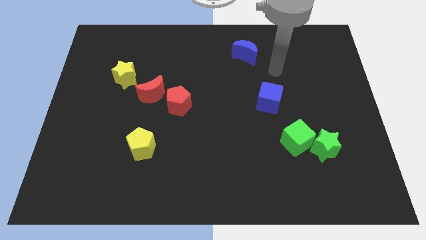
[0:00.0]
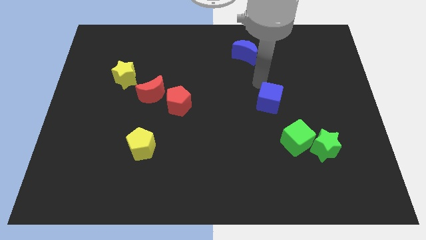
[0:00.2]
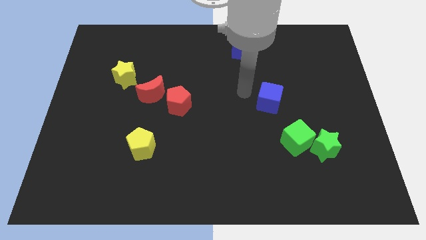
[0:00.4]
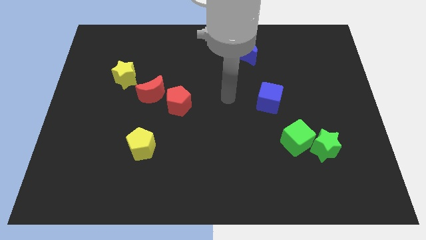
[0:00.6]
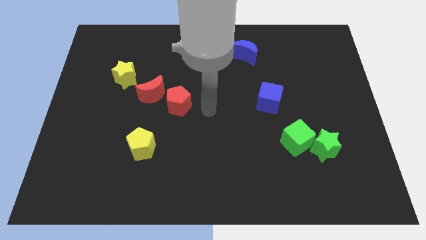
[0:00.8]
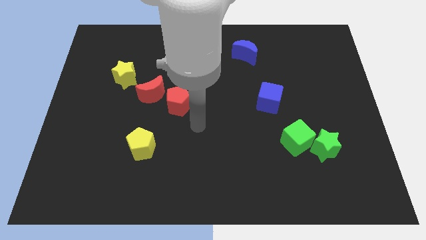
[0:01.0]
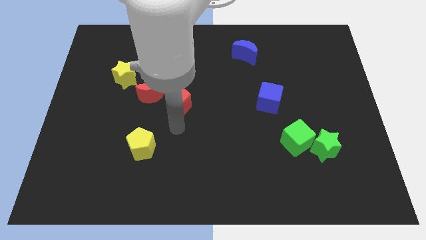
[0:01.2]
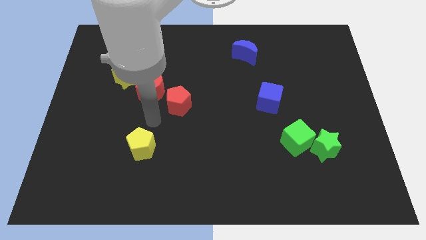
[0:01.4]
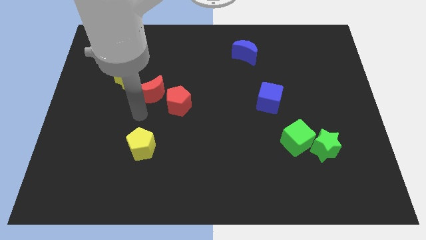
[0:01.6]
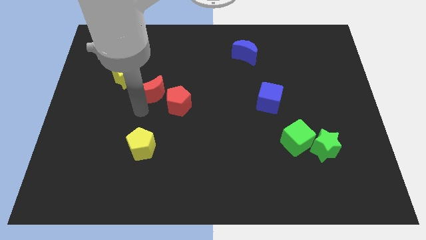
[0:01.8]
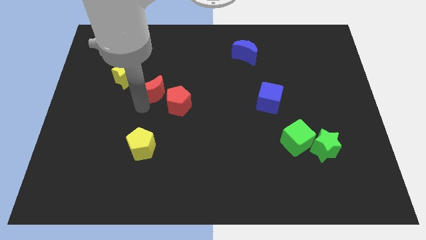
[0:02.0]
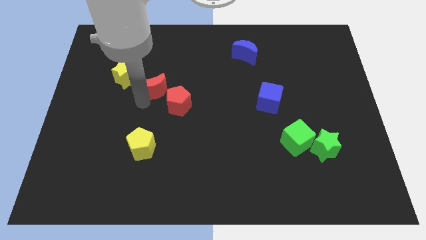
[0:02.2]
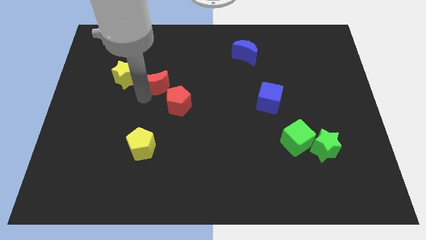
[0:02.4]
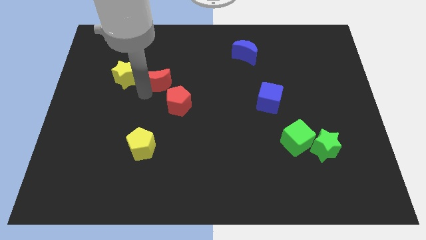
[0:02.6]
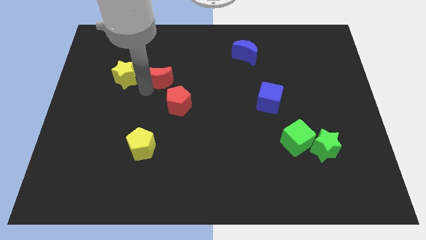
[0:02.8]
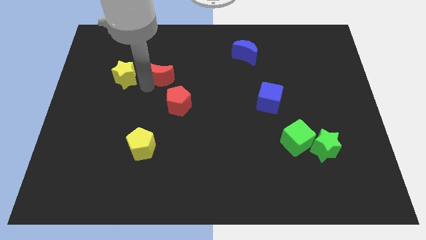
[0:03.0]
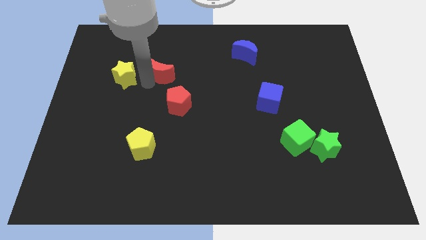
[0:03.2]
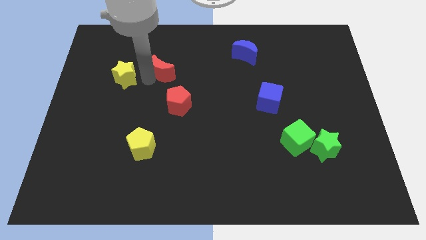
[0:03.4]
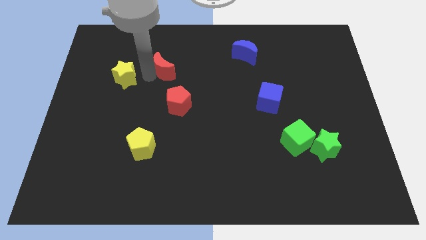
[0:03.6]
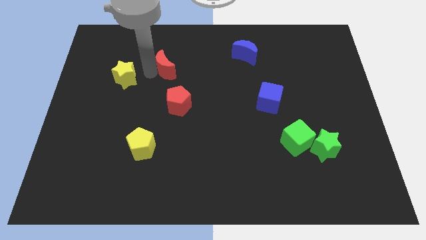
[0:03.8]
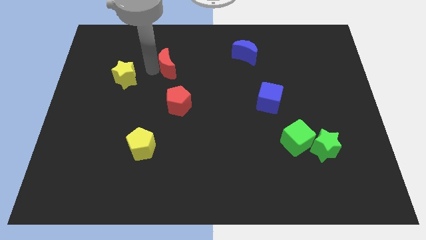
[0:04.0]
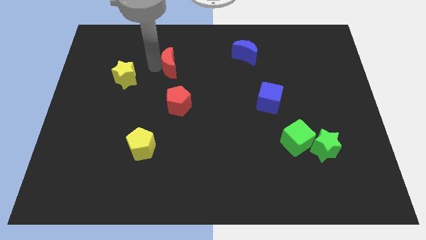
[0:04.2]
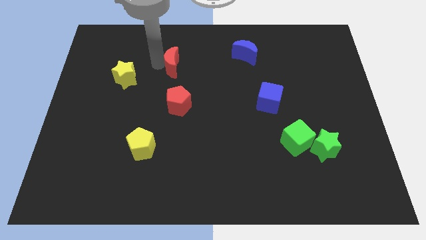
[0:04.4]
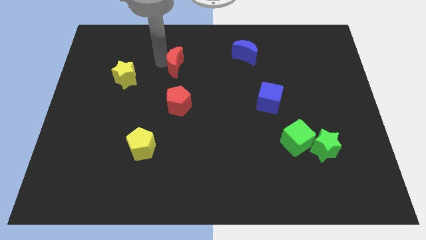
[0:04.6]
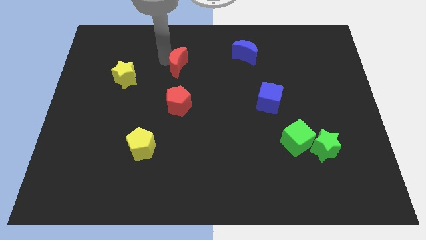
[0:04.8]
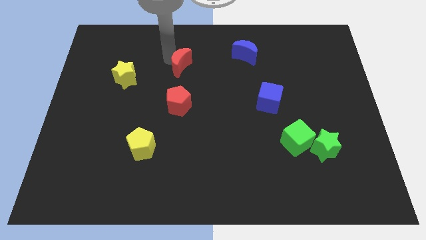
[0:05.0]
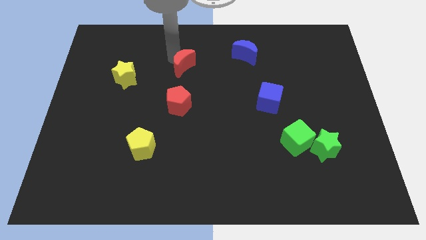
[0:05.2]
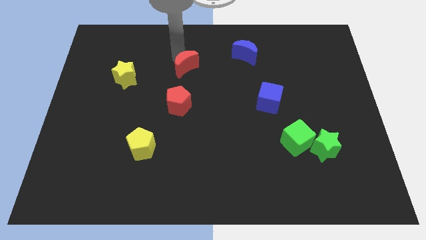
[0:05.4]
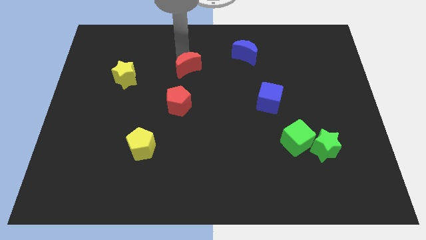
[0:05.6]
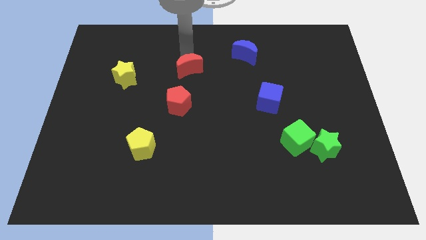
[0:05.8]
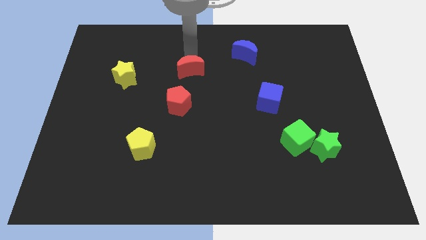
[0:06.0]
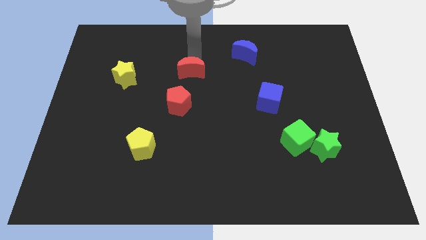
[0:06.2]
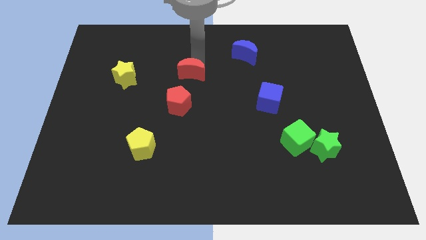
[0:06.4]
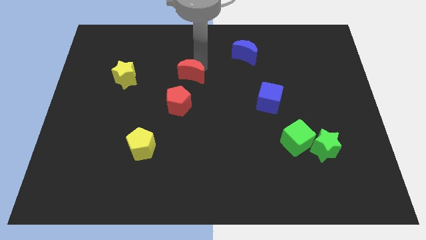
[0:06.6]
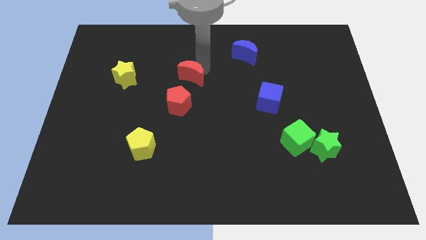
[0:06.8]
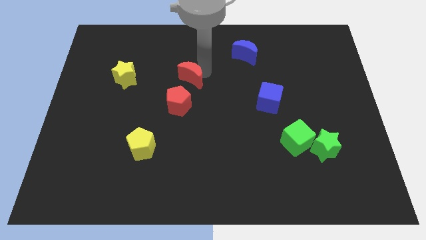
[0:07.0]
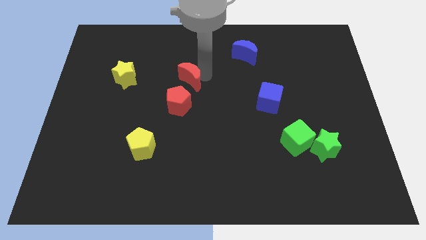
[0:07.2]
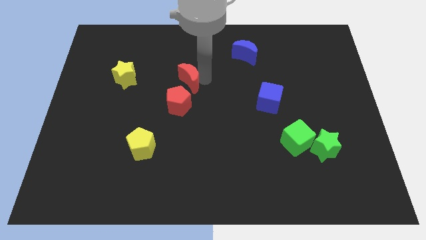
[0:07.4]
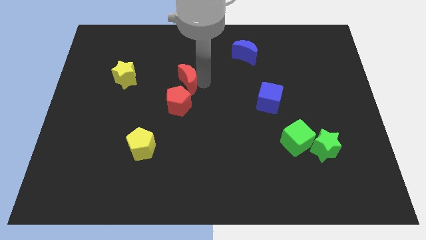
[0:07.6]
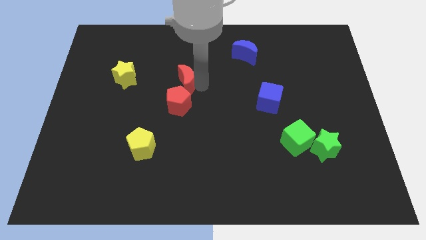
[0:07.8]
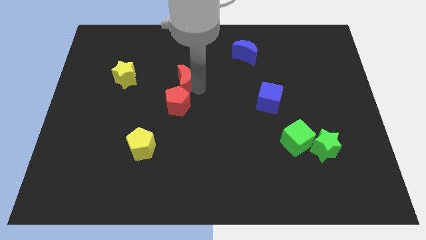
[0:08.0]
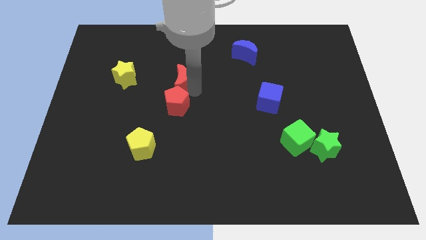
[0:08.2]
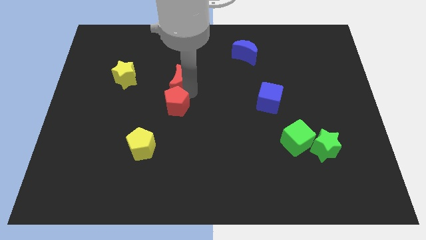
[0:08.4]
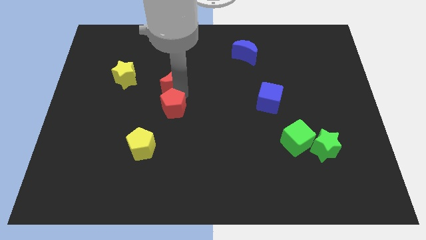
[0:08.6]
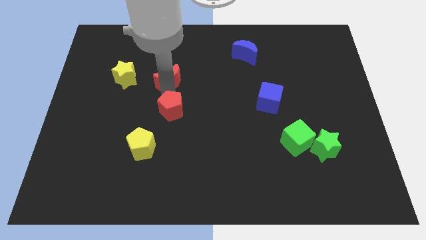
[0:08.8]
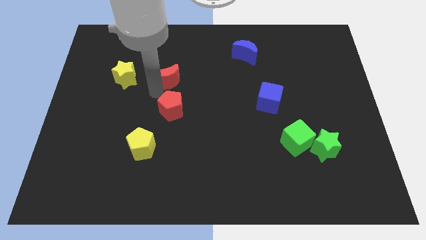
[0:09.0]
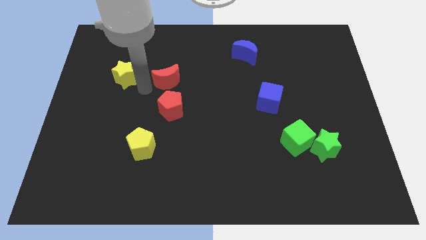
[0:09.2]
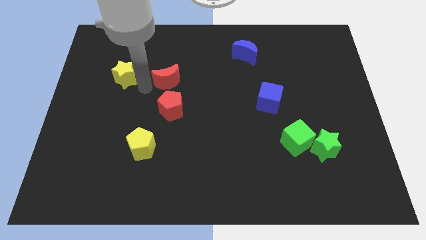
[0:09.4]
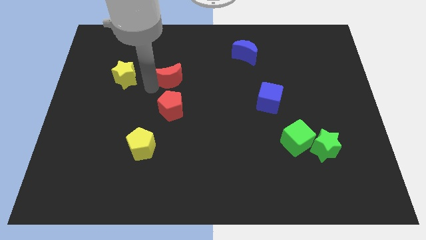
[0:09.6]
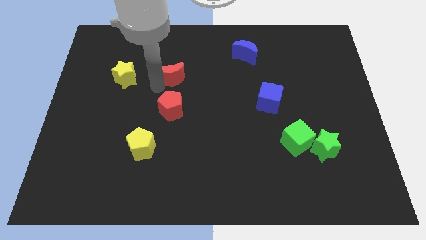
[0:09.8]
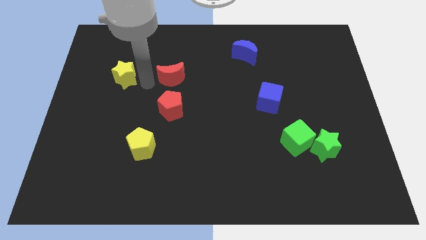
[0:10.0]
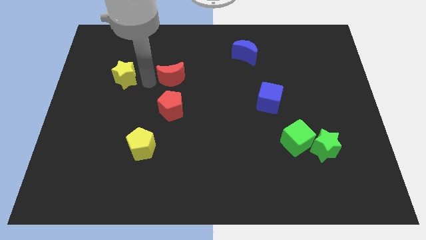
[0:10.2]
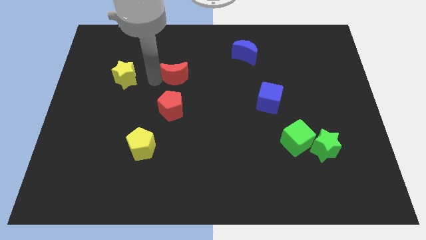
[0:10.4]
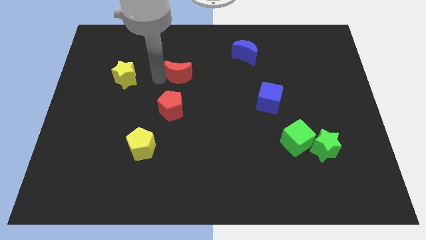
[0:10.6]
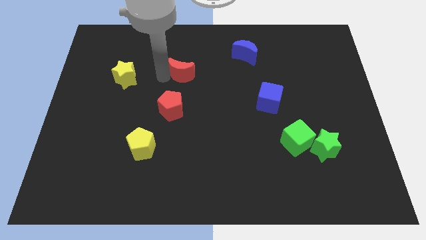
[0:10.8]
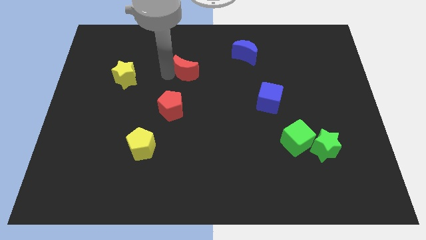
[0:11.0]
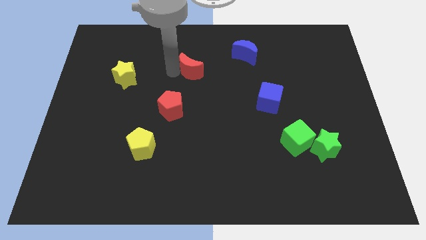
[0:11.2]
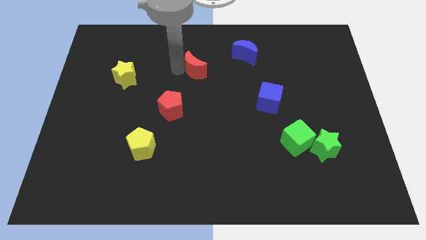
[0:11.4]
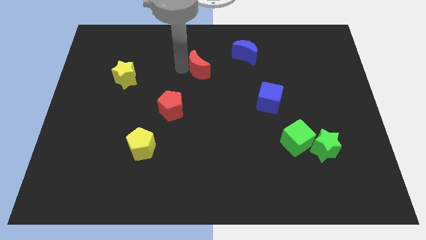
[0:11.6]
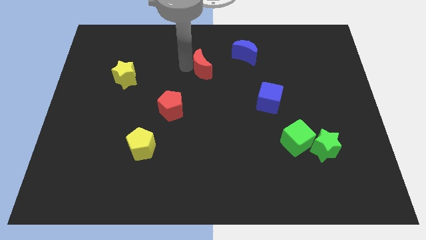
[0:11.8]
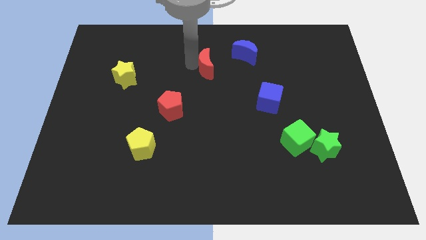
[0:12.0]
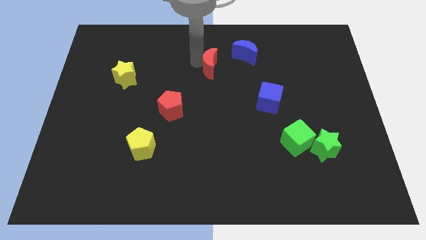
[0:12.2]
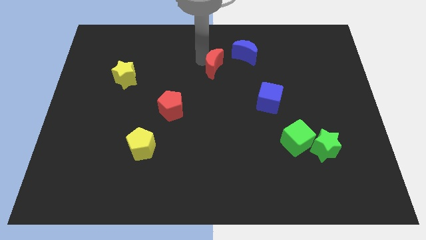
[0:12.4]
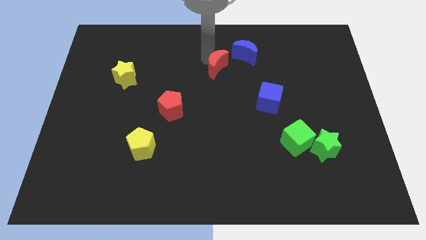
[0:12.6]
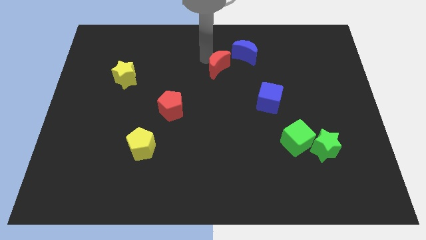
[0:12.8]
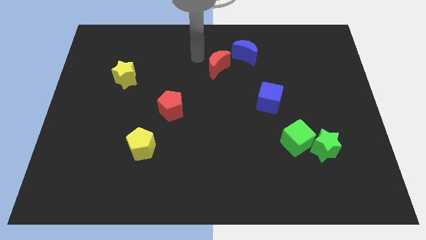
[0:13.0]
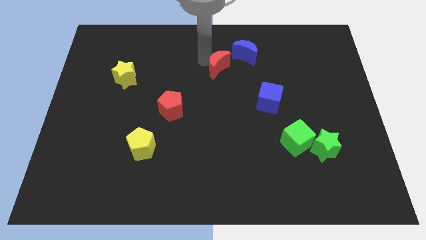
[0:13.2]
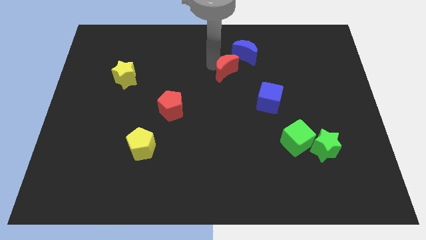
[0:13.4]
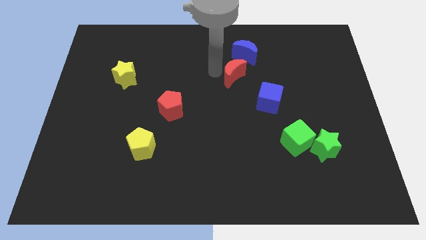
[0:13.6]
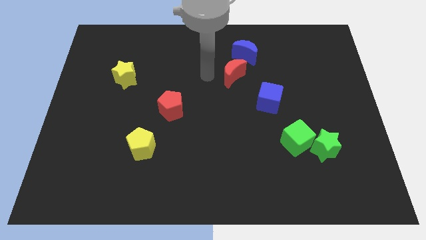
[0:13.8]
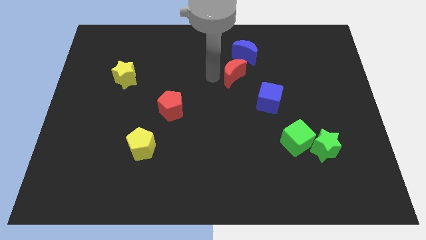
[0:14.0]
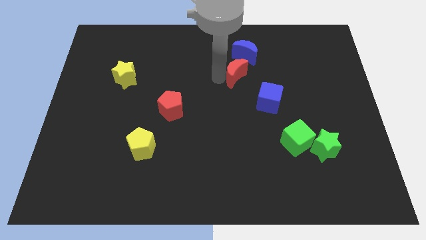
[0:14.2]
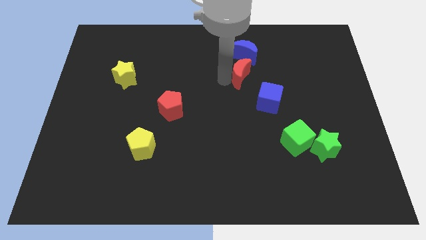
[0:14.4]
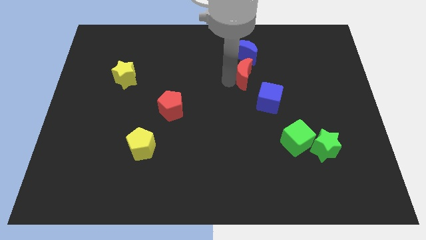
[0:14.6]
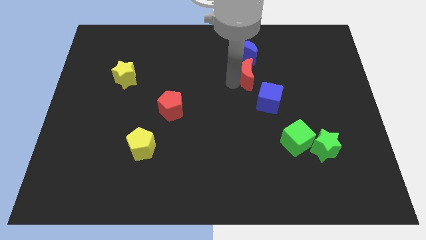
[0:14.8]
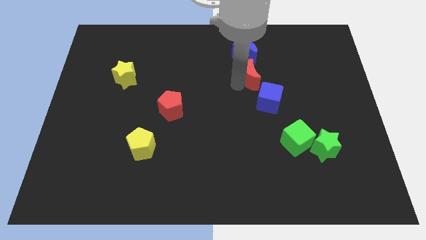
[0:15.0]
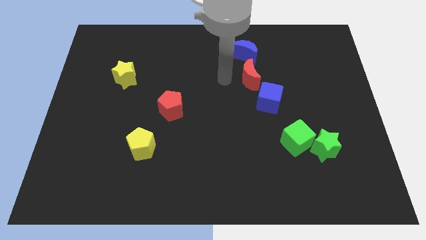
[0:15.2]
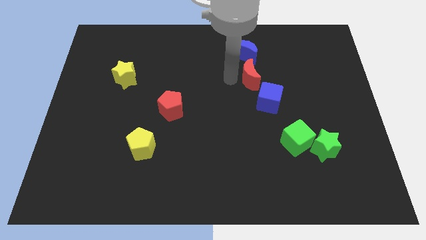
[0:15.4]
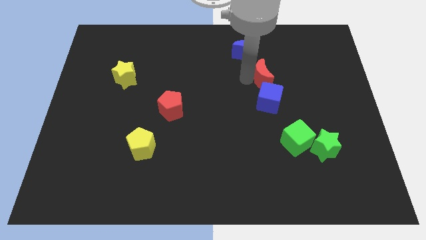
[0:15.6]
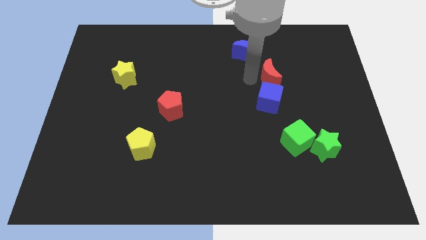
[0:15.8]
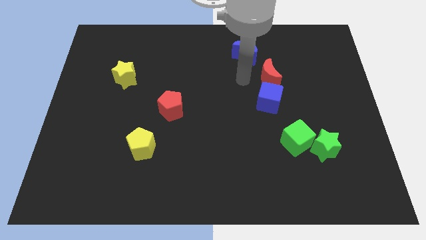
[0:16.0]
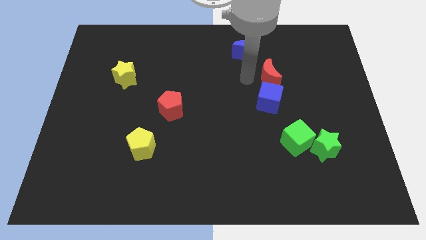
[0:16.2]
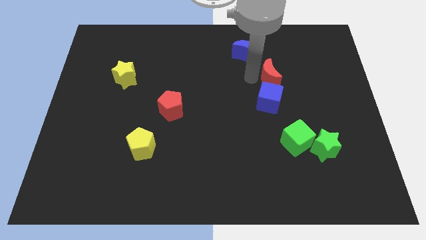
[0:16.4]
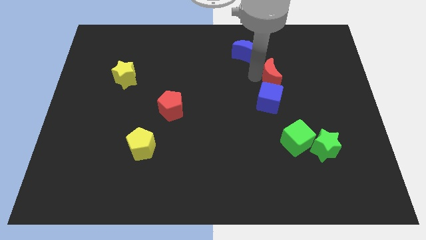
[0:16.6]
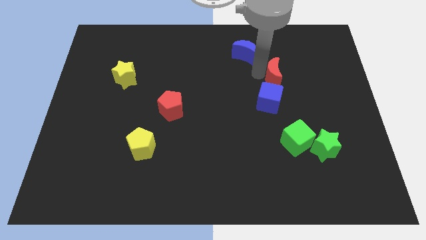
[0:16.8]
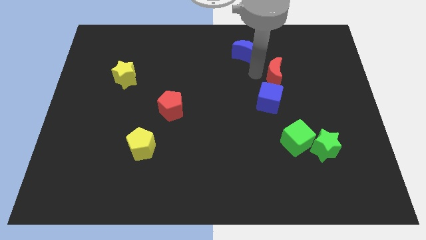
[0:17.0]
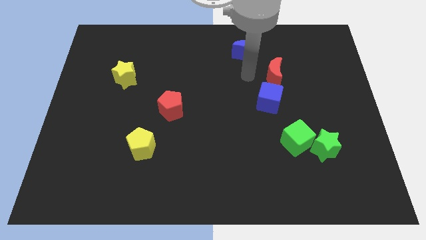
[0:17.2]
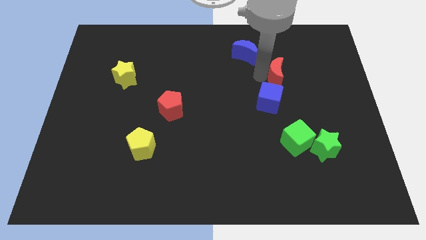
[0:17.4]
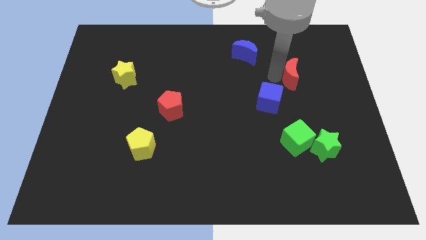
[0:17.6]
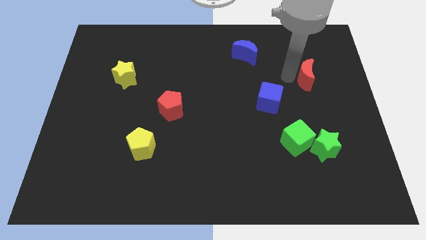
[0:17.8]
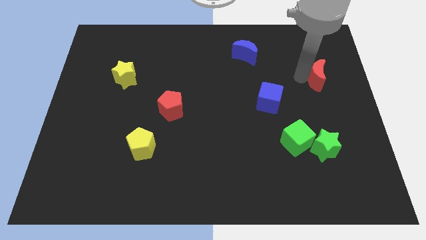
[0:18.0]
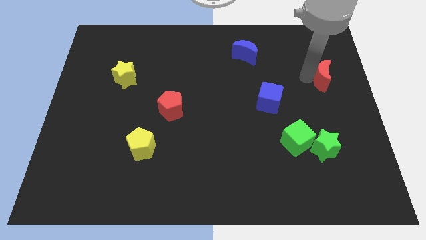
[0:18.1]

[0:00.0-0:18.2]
slide the red moon to the right side
